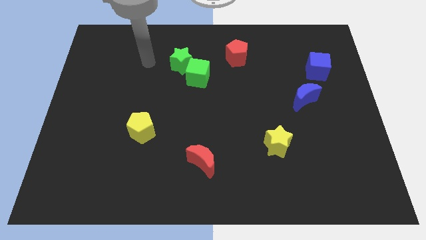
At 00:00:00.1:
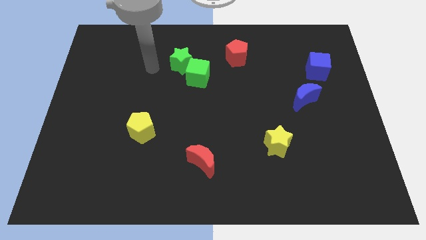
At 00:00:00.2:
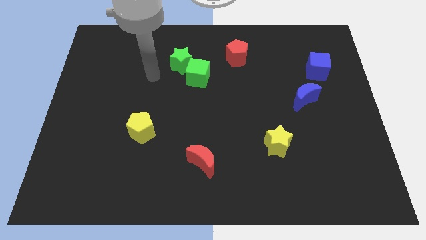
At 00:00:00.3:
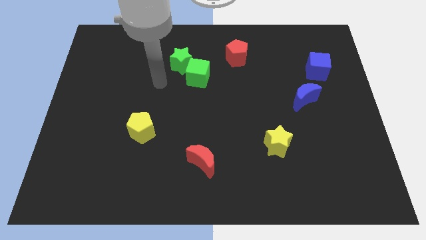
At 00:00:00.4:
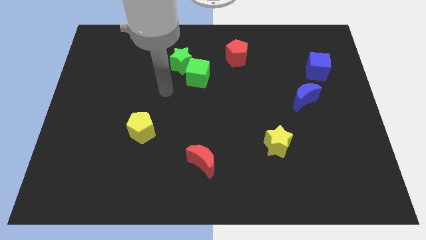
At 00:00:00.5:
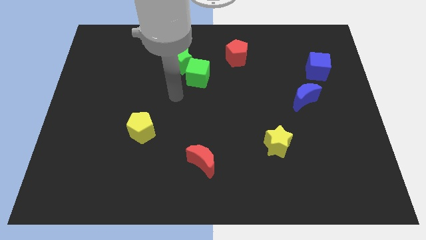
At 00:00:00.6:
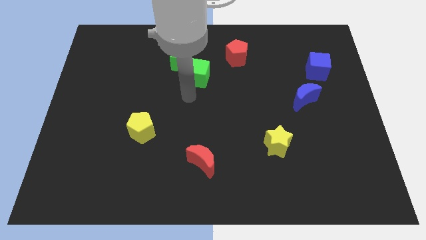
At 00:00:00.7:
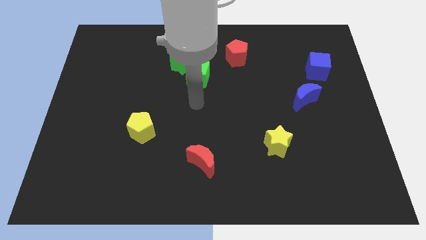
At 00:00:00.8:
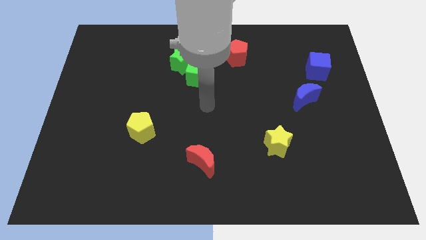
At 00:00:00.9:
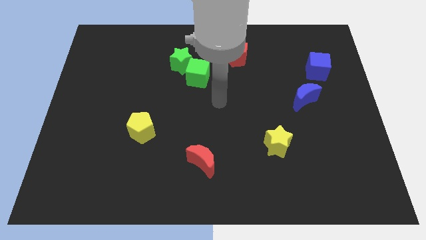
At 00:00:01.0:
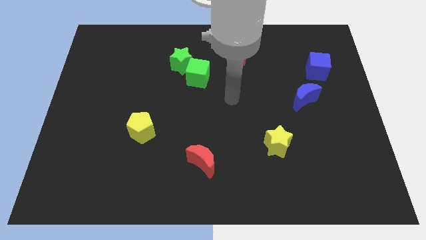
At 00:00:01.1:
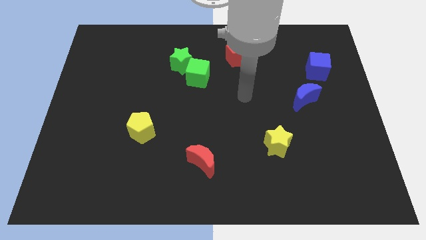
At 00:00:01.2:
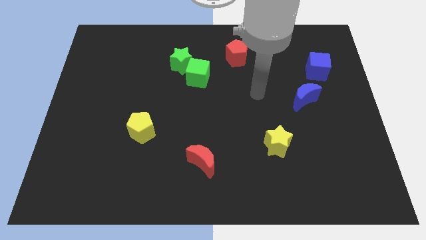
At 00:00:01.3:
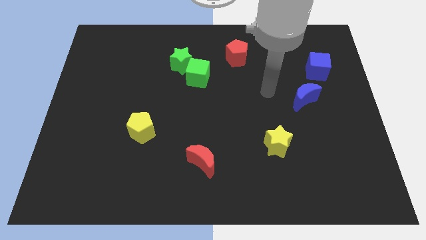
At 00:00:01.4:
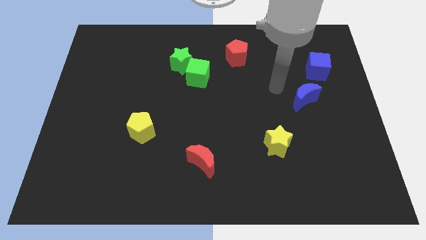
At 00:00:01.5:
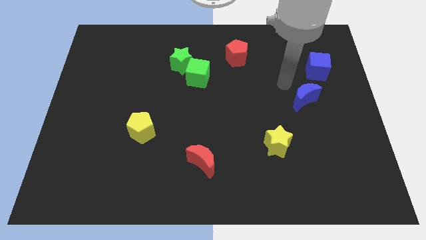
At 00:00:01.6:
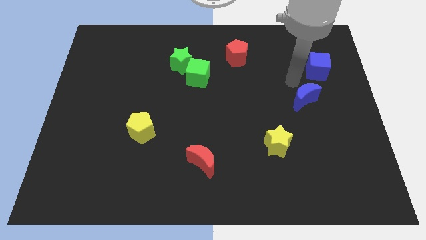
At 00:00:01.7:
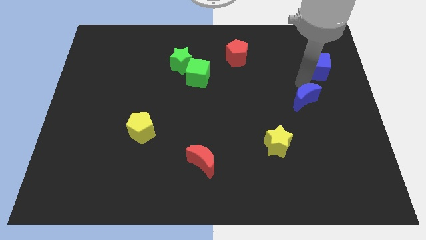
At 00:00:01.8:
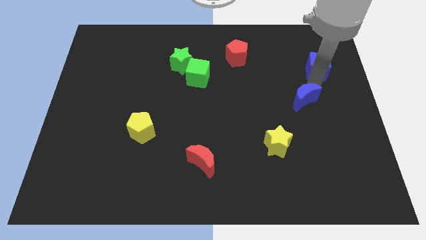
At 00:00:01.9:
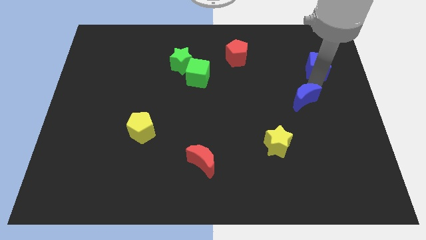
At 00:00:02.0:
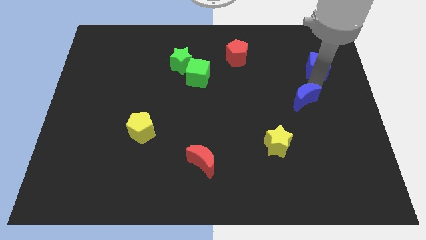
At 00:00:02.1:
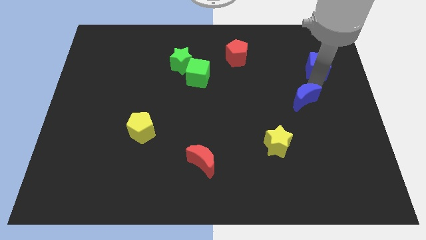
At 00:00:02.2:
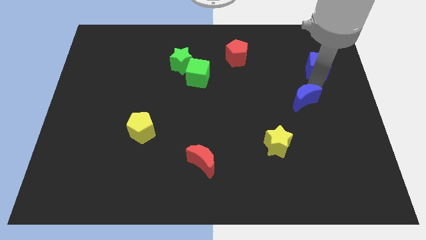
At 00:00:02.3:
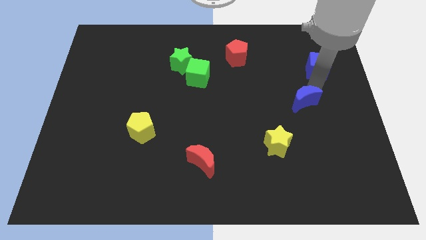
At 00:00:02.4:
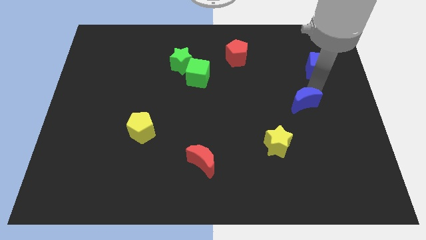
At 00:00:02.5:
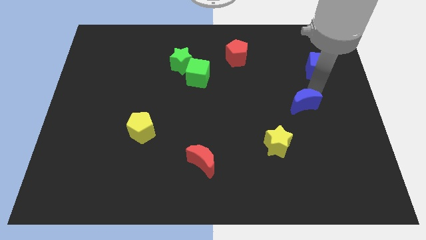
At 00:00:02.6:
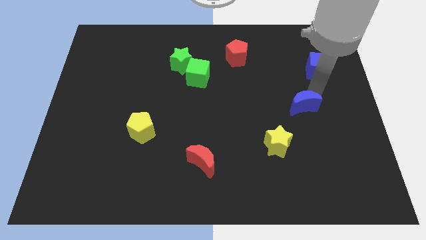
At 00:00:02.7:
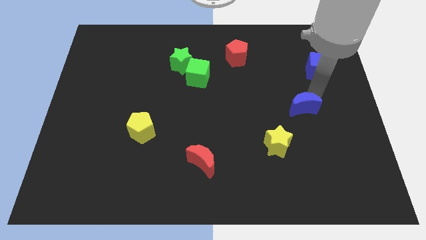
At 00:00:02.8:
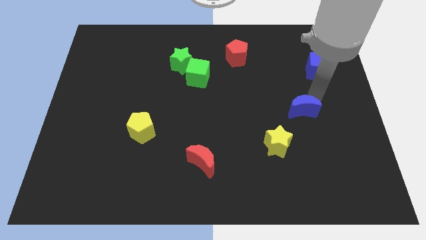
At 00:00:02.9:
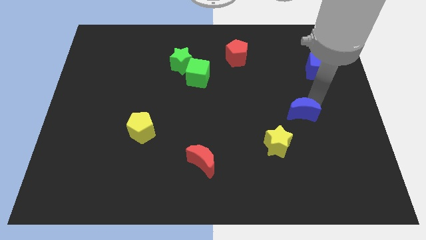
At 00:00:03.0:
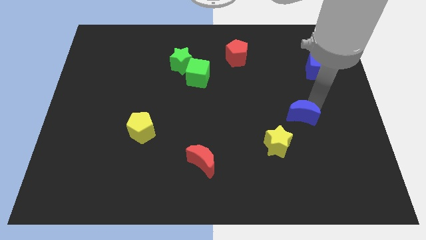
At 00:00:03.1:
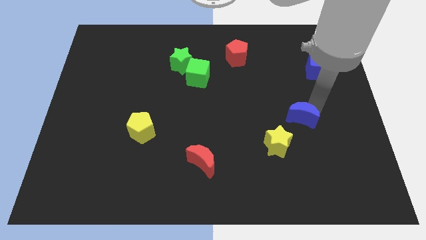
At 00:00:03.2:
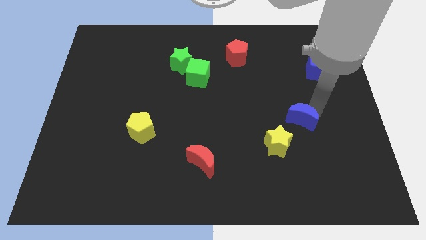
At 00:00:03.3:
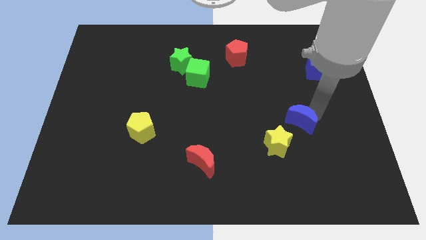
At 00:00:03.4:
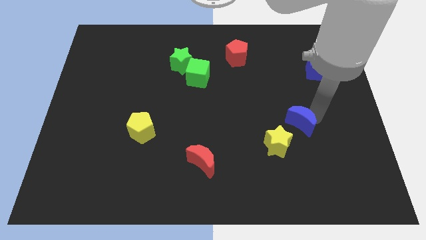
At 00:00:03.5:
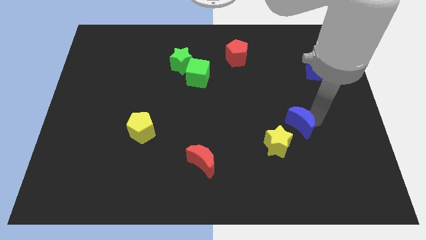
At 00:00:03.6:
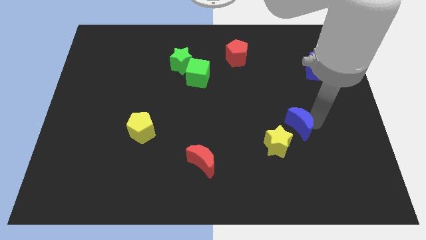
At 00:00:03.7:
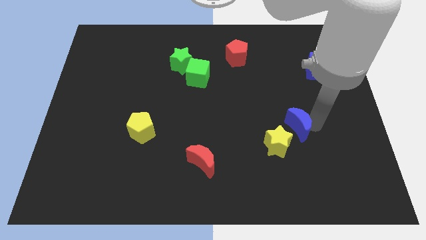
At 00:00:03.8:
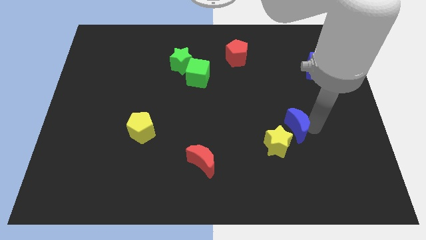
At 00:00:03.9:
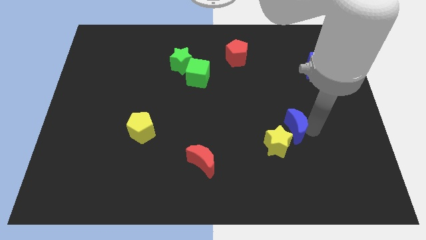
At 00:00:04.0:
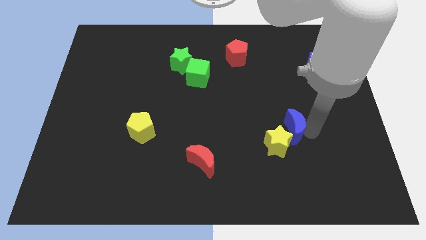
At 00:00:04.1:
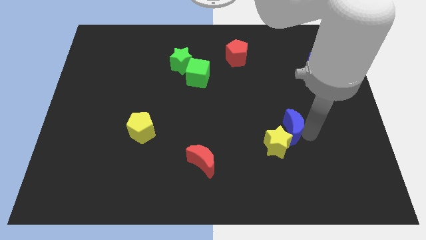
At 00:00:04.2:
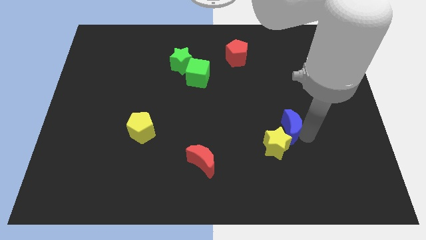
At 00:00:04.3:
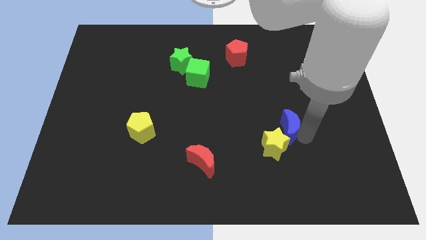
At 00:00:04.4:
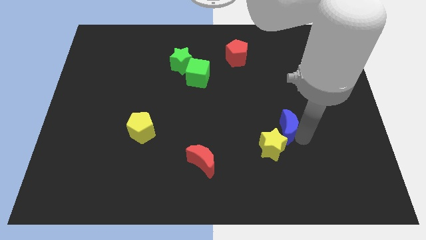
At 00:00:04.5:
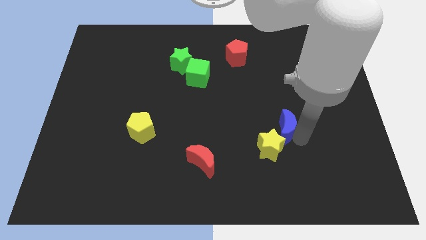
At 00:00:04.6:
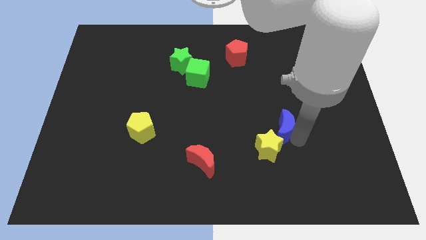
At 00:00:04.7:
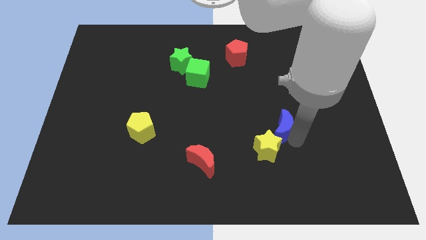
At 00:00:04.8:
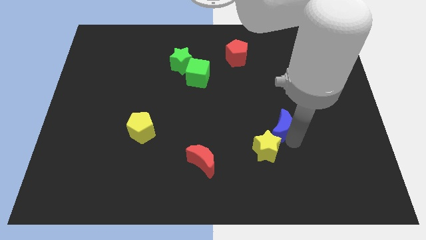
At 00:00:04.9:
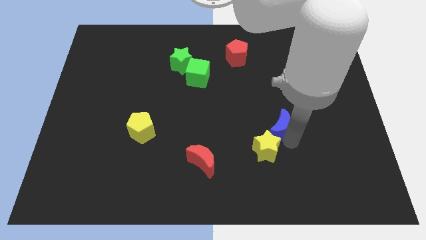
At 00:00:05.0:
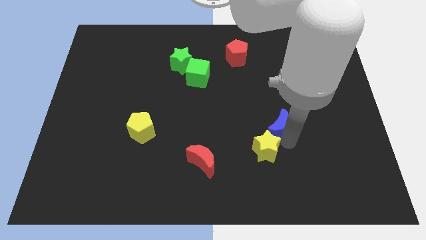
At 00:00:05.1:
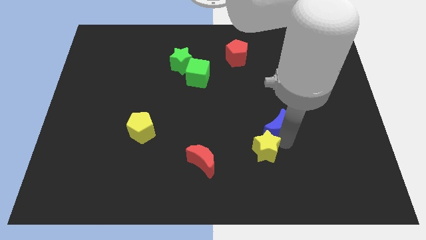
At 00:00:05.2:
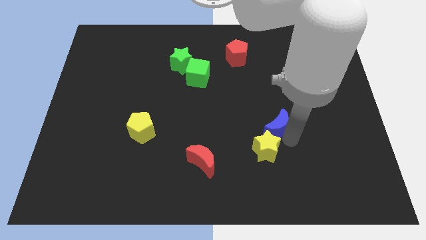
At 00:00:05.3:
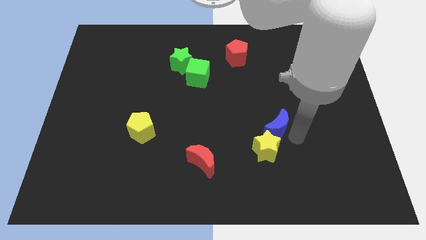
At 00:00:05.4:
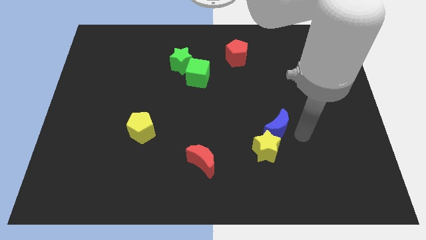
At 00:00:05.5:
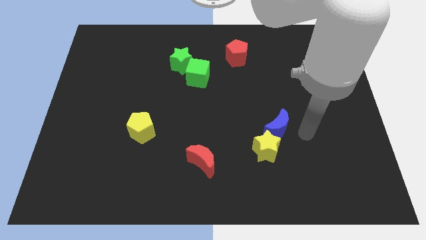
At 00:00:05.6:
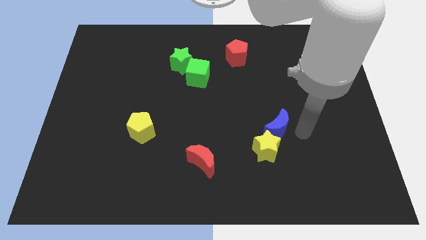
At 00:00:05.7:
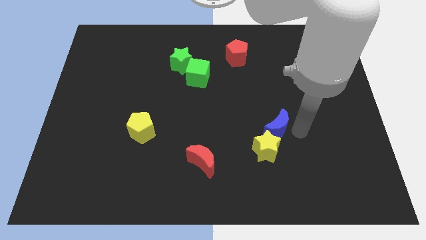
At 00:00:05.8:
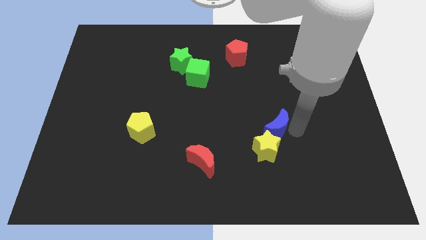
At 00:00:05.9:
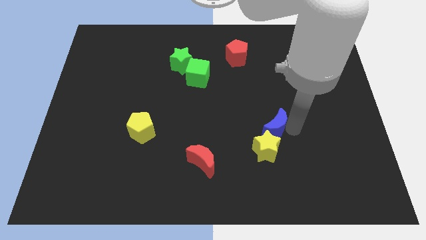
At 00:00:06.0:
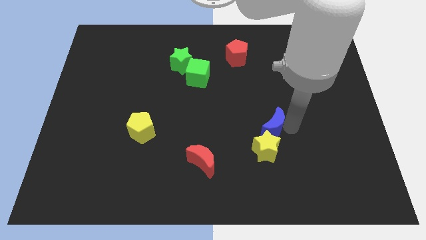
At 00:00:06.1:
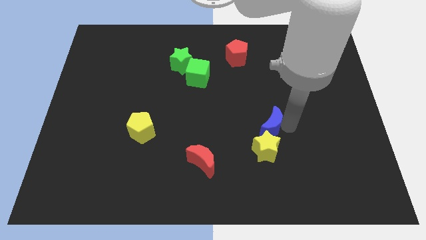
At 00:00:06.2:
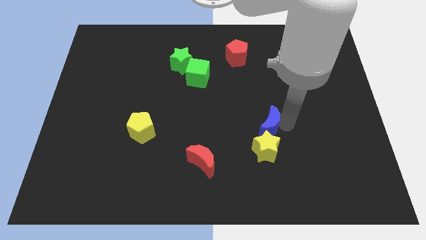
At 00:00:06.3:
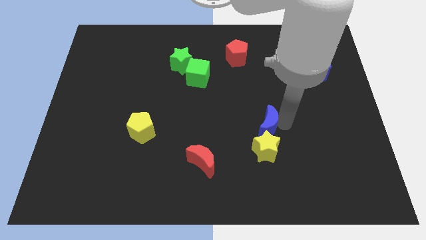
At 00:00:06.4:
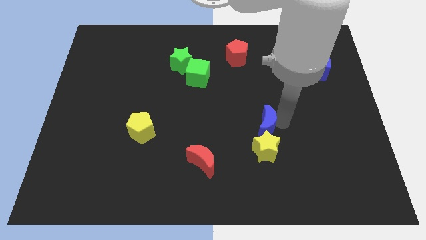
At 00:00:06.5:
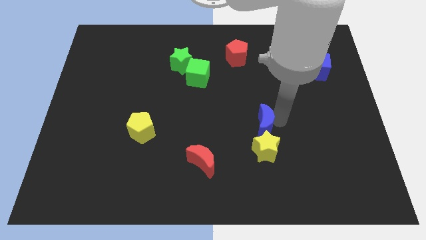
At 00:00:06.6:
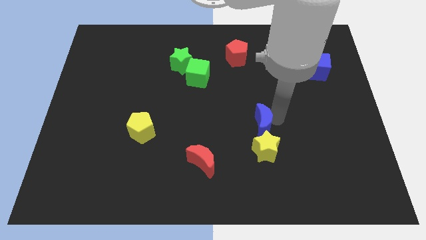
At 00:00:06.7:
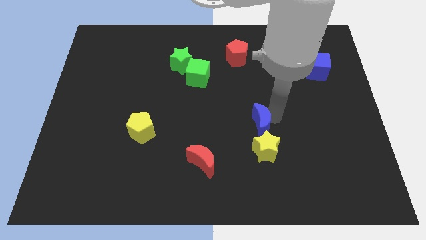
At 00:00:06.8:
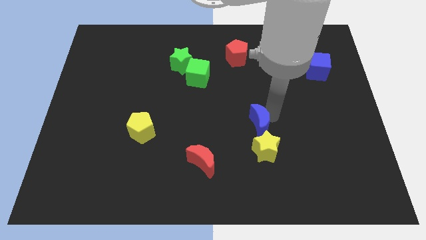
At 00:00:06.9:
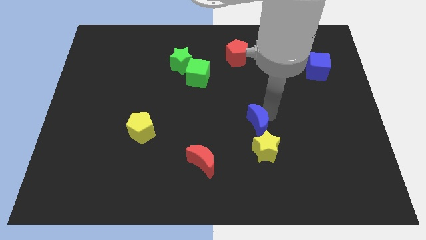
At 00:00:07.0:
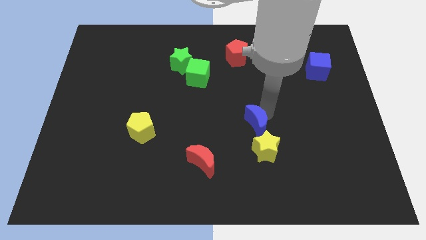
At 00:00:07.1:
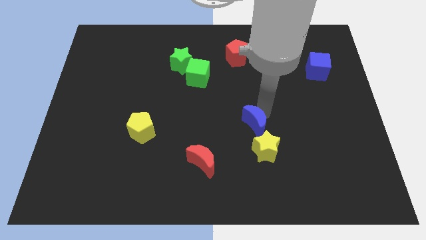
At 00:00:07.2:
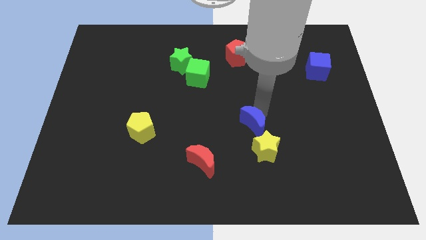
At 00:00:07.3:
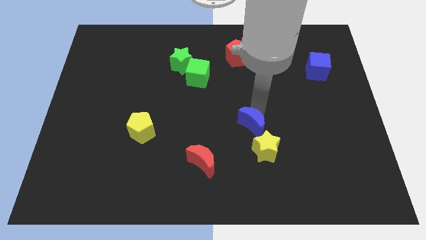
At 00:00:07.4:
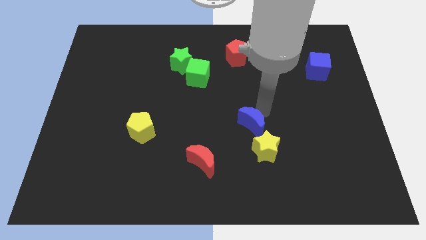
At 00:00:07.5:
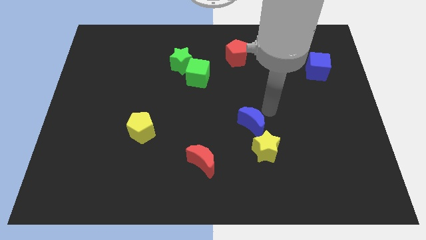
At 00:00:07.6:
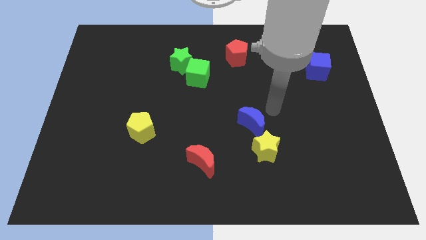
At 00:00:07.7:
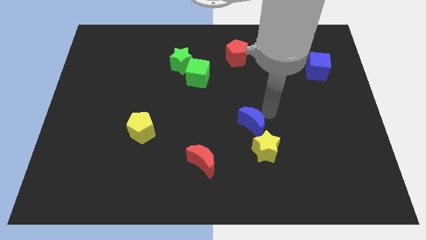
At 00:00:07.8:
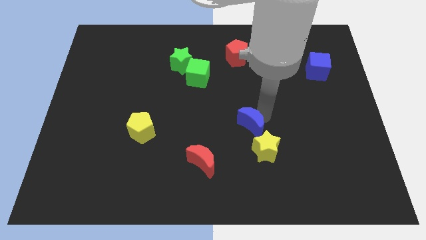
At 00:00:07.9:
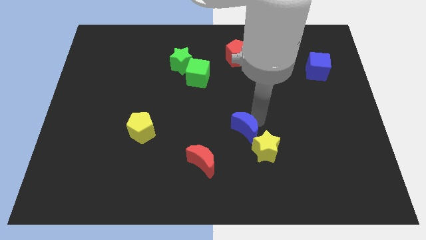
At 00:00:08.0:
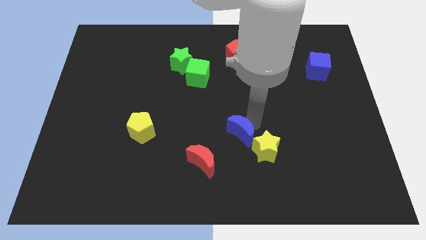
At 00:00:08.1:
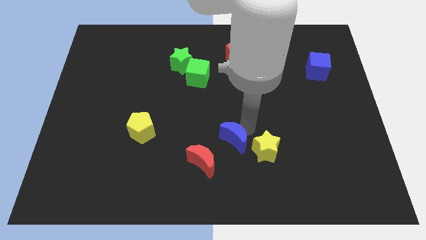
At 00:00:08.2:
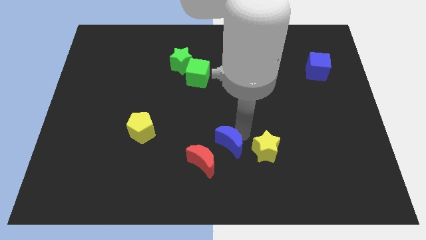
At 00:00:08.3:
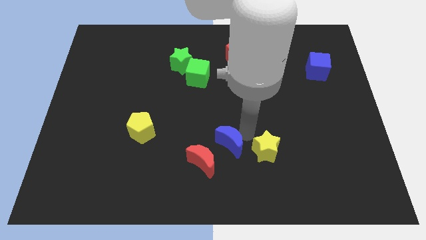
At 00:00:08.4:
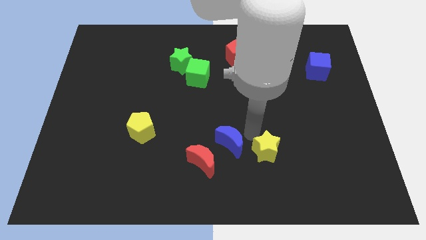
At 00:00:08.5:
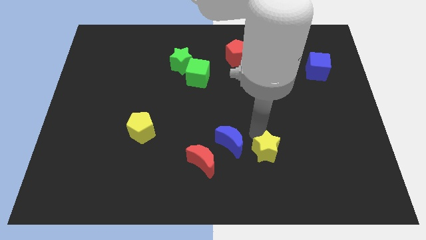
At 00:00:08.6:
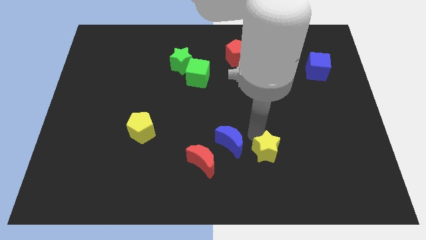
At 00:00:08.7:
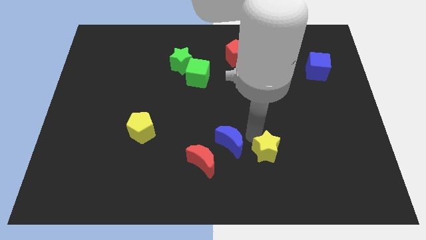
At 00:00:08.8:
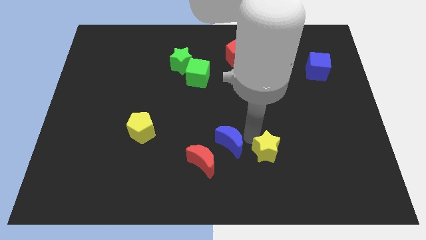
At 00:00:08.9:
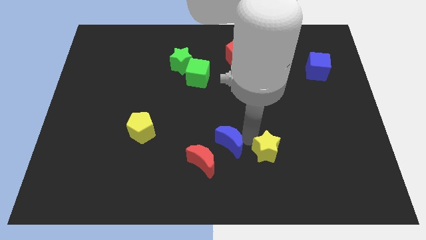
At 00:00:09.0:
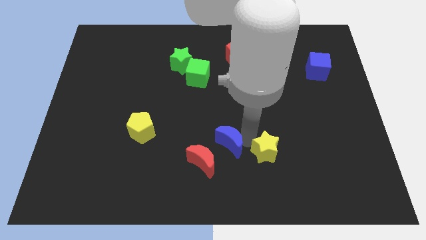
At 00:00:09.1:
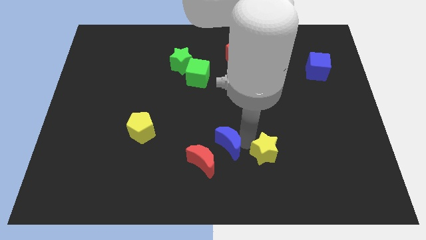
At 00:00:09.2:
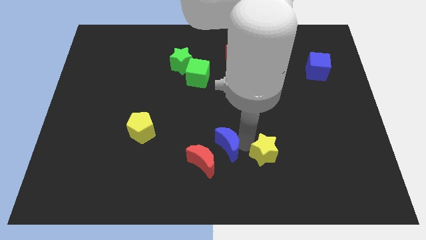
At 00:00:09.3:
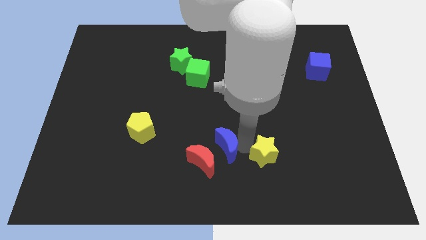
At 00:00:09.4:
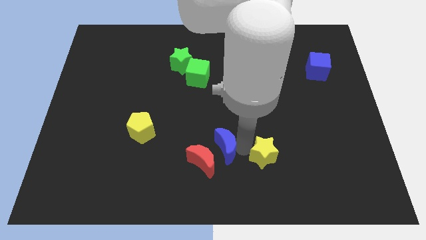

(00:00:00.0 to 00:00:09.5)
slide the blue moon next to the red moon
